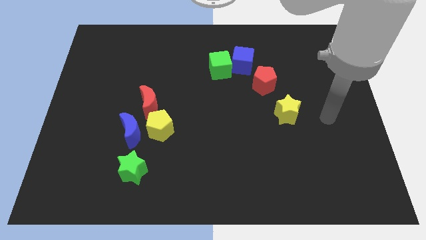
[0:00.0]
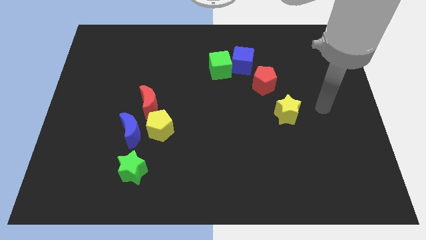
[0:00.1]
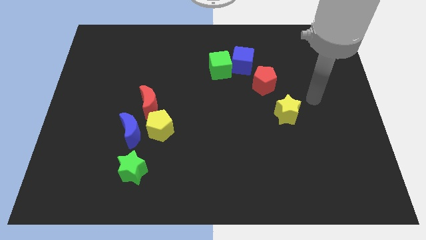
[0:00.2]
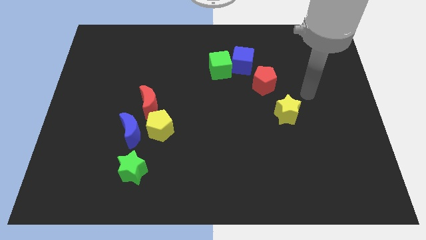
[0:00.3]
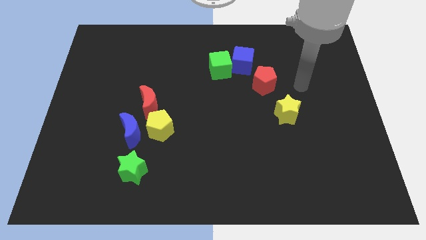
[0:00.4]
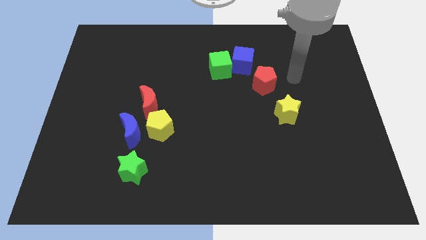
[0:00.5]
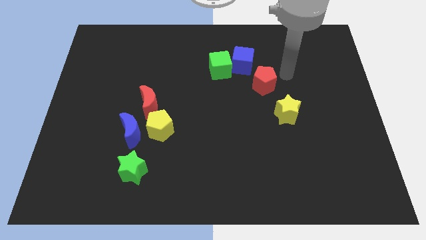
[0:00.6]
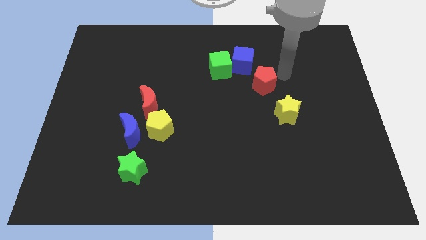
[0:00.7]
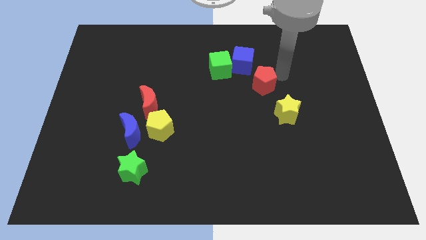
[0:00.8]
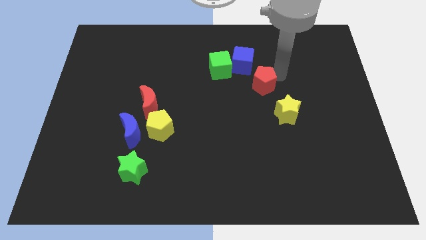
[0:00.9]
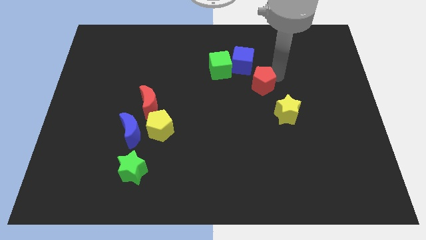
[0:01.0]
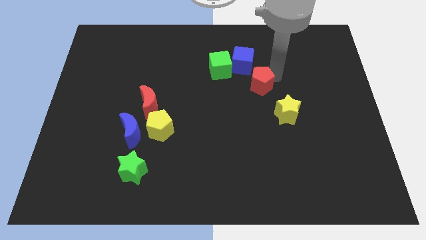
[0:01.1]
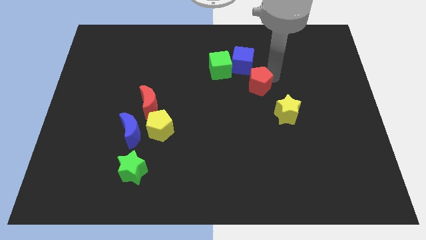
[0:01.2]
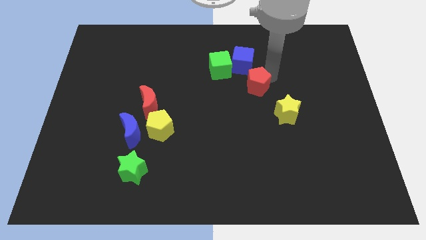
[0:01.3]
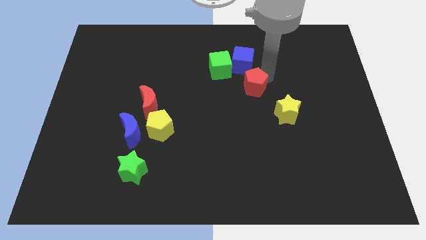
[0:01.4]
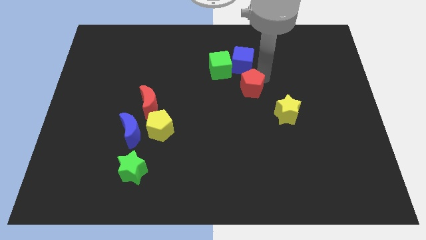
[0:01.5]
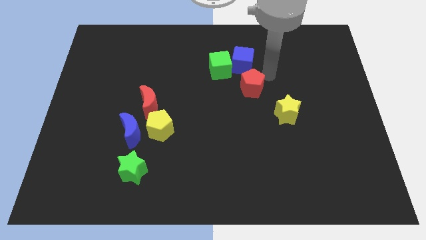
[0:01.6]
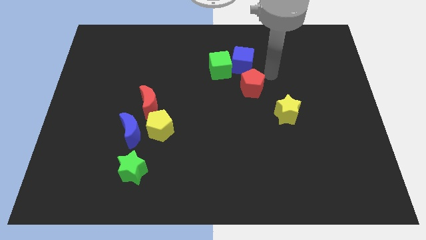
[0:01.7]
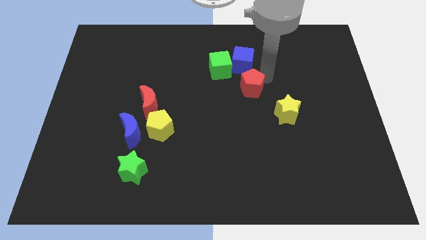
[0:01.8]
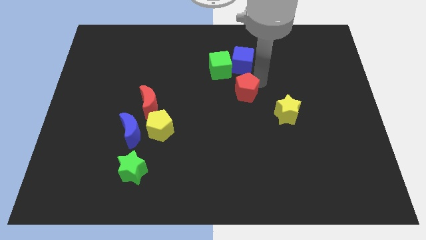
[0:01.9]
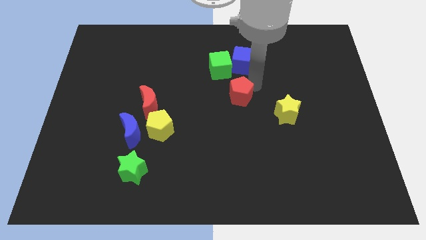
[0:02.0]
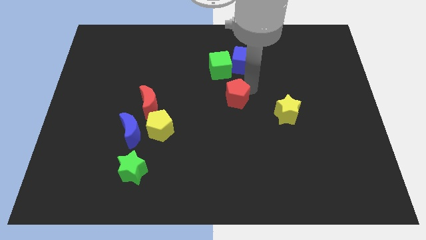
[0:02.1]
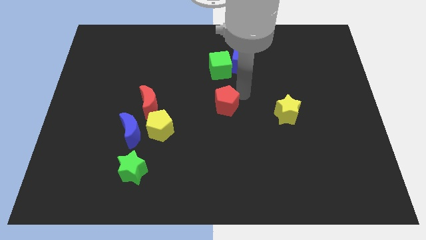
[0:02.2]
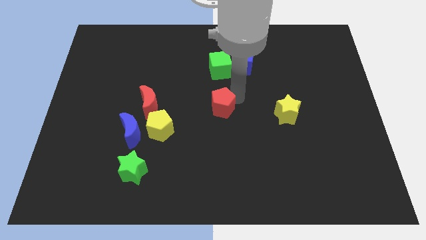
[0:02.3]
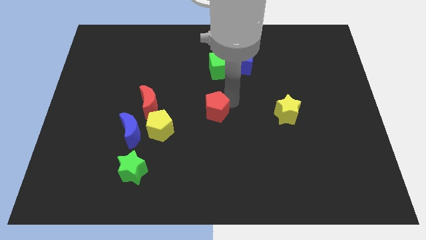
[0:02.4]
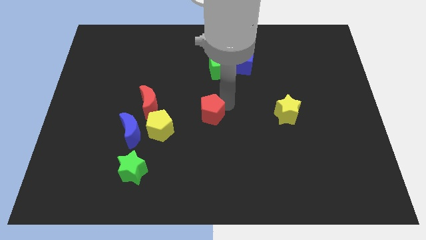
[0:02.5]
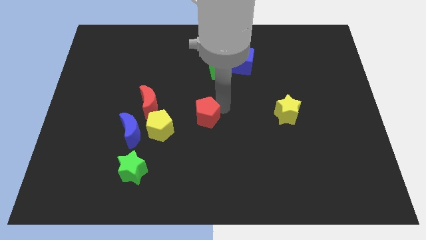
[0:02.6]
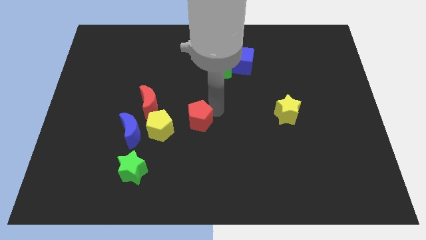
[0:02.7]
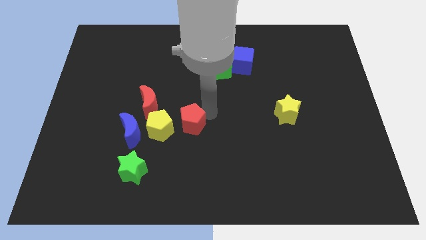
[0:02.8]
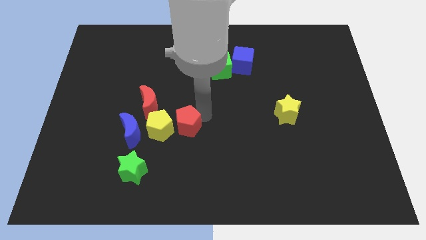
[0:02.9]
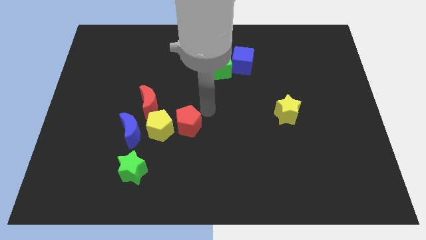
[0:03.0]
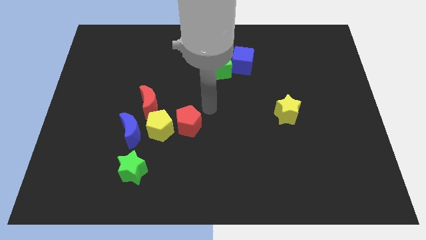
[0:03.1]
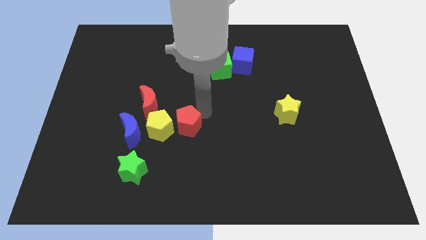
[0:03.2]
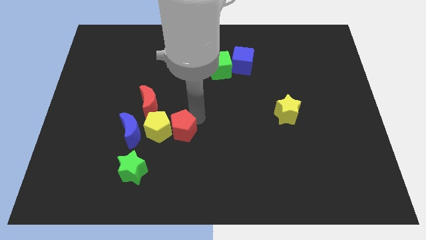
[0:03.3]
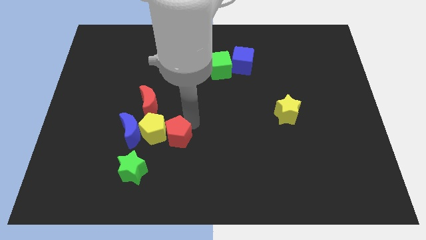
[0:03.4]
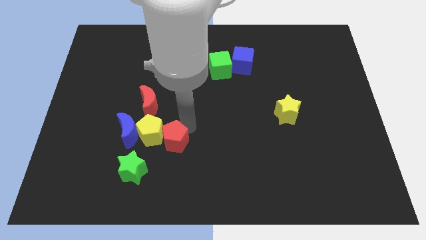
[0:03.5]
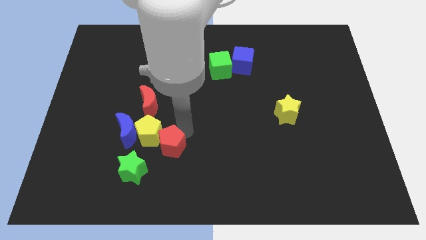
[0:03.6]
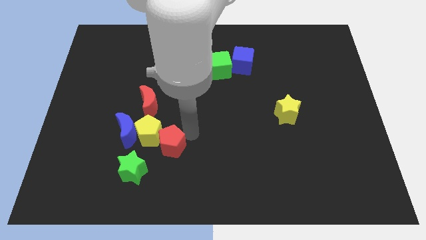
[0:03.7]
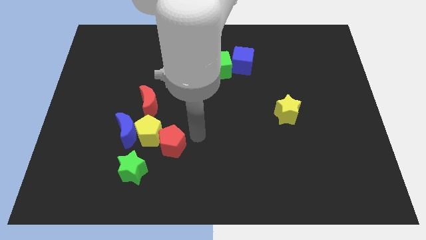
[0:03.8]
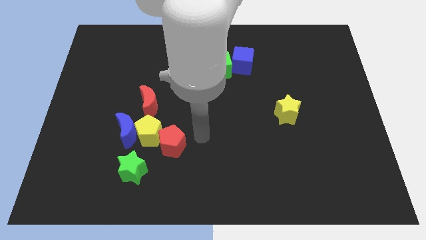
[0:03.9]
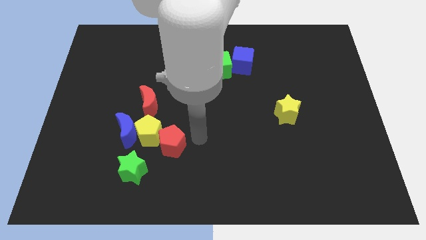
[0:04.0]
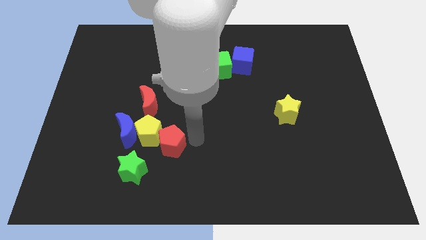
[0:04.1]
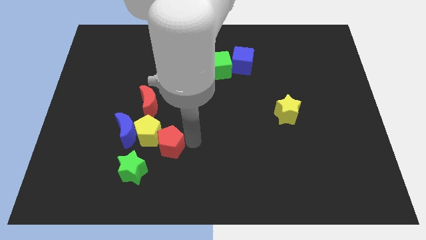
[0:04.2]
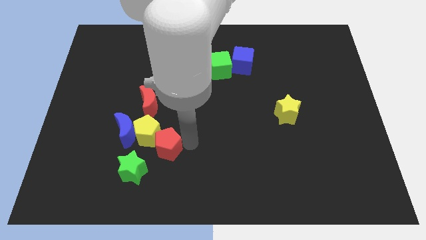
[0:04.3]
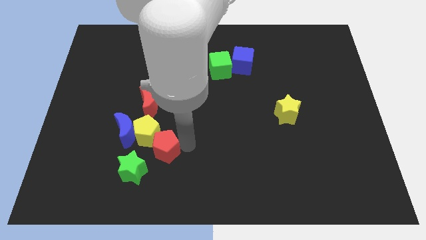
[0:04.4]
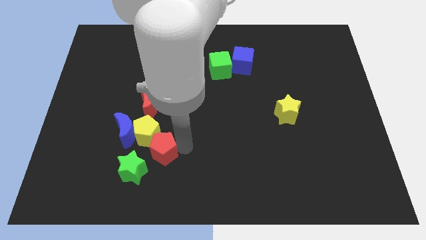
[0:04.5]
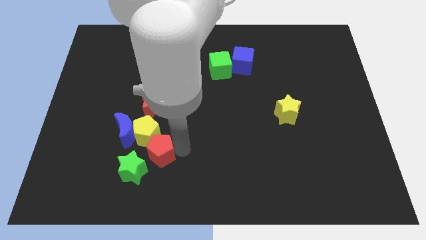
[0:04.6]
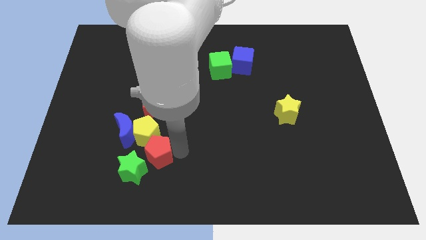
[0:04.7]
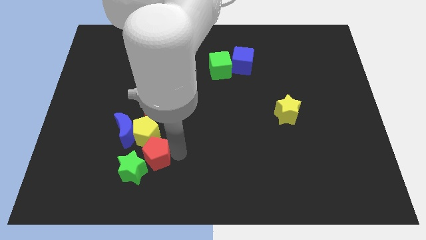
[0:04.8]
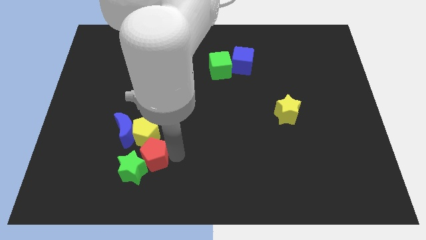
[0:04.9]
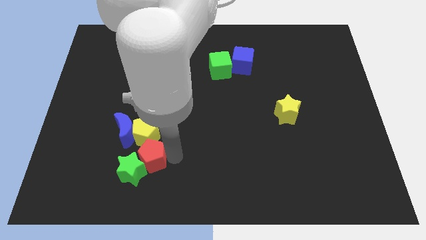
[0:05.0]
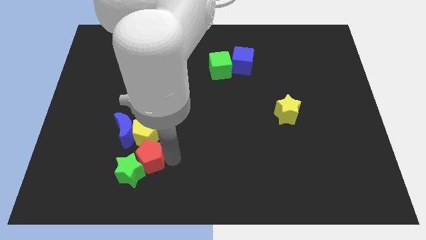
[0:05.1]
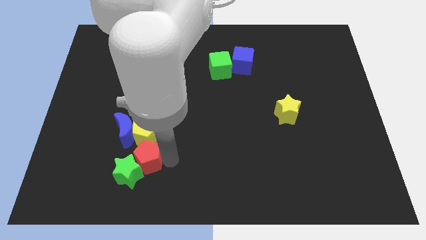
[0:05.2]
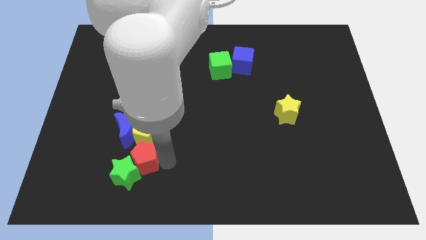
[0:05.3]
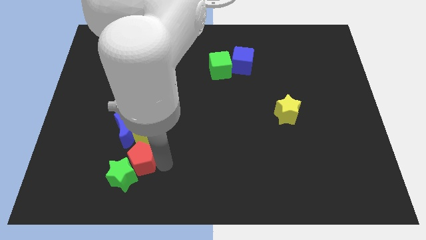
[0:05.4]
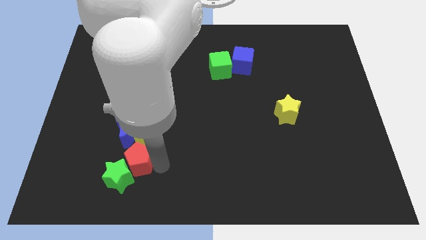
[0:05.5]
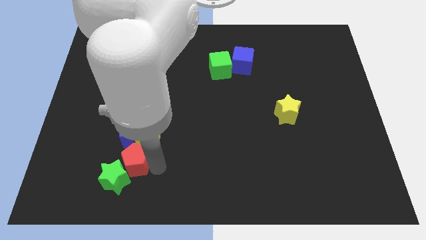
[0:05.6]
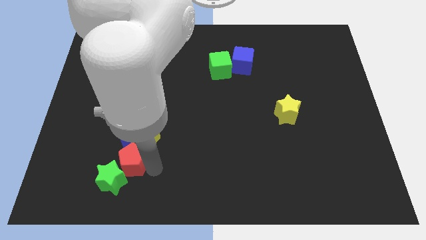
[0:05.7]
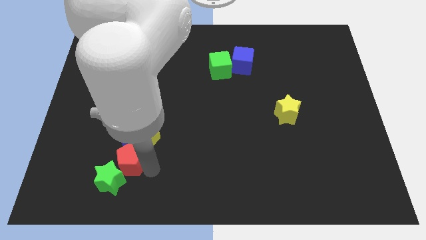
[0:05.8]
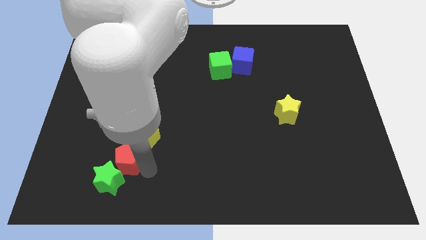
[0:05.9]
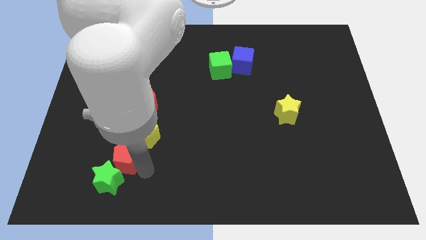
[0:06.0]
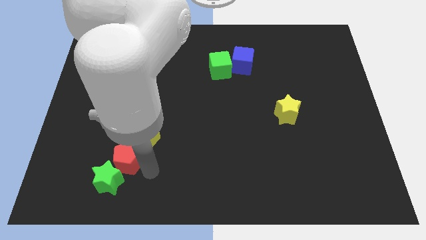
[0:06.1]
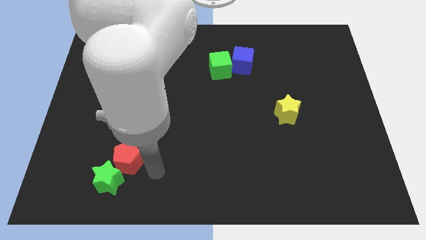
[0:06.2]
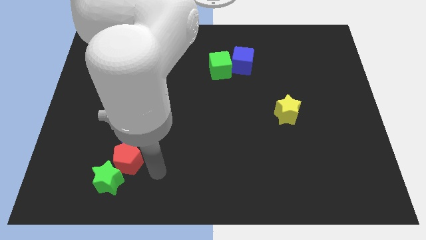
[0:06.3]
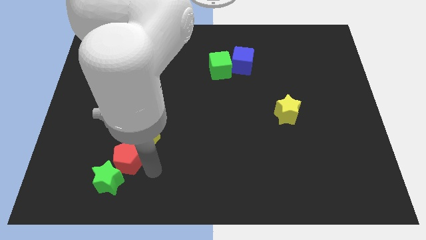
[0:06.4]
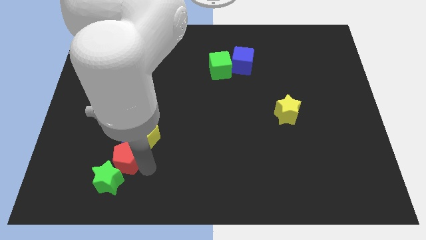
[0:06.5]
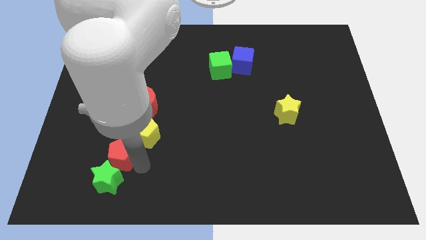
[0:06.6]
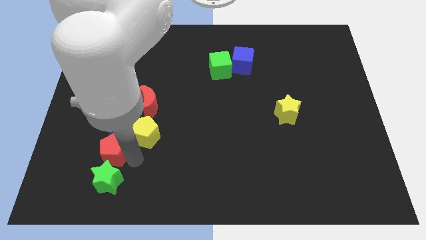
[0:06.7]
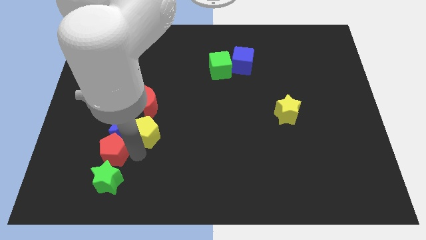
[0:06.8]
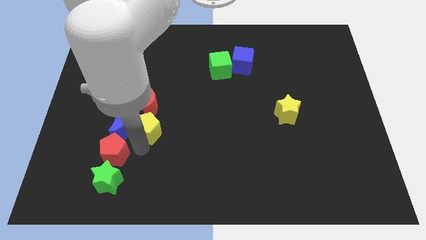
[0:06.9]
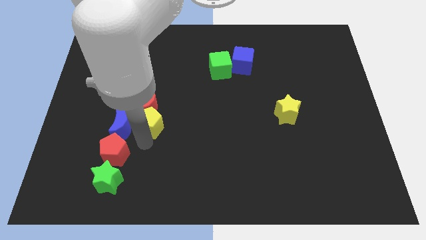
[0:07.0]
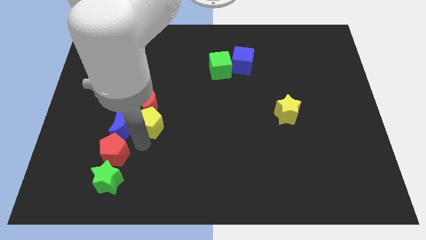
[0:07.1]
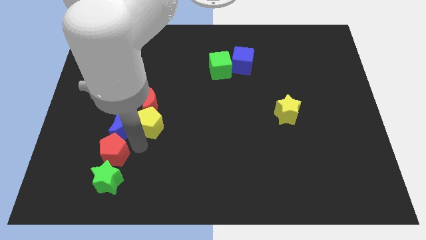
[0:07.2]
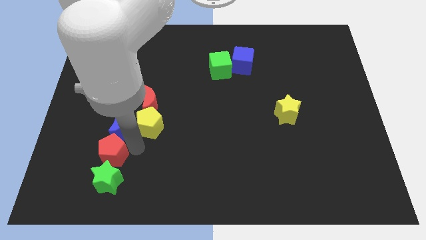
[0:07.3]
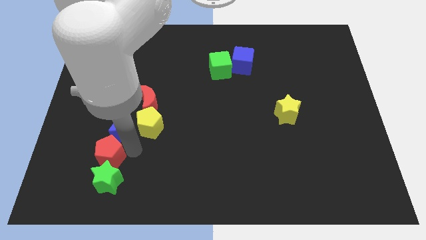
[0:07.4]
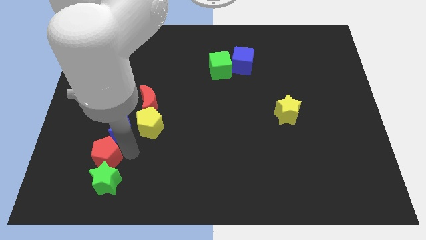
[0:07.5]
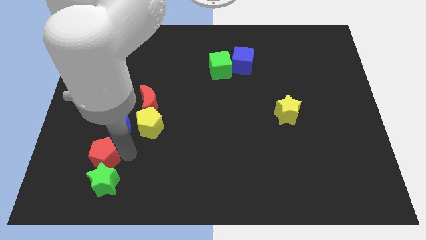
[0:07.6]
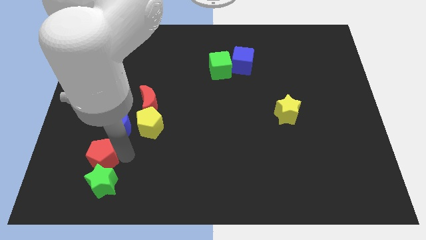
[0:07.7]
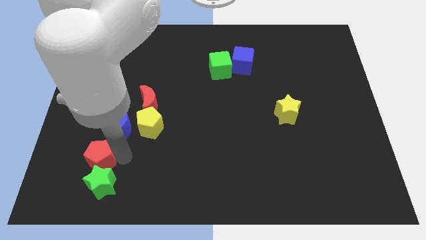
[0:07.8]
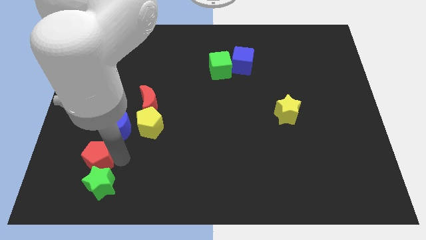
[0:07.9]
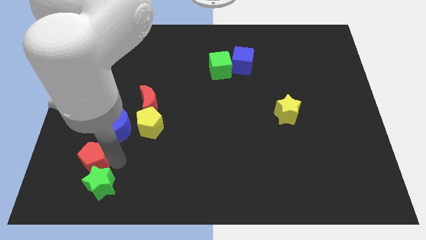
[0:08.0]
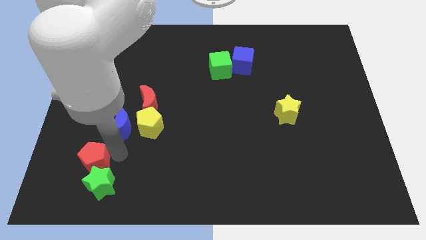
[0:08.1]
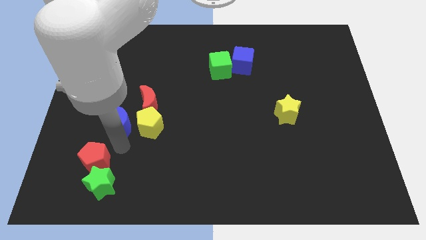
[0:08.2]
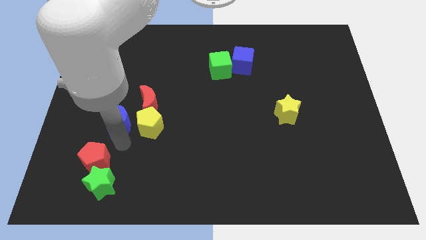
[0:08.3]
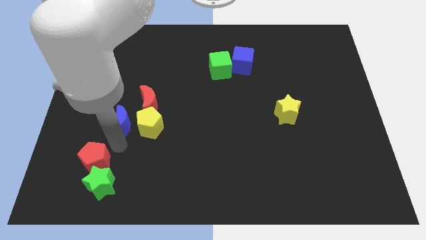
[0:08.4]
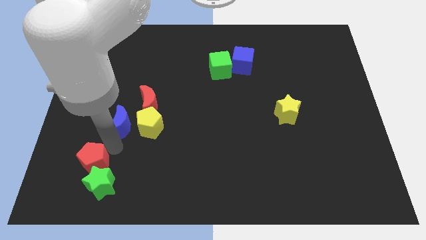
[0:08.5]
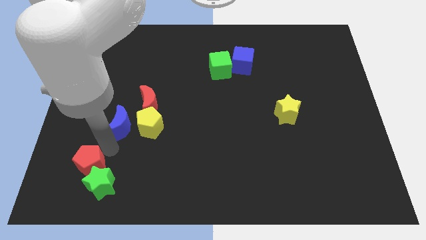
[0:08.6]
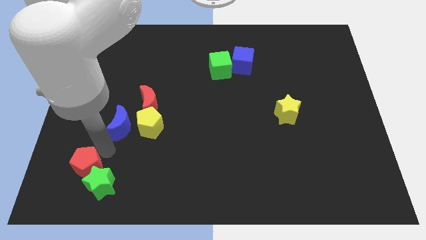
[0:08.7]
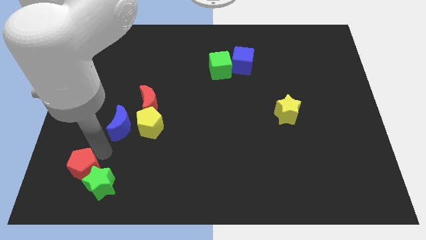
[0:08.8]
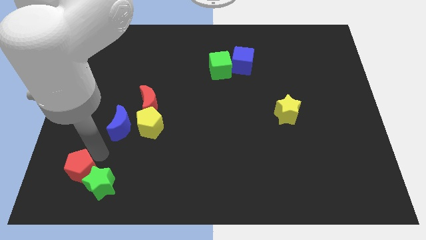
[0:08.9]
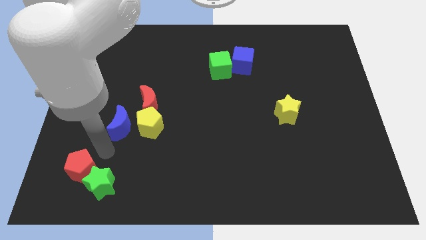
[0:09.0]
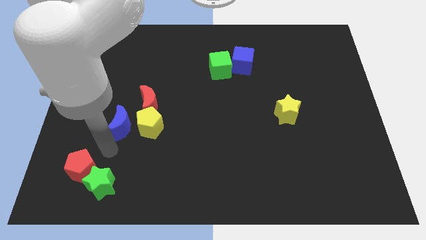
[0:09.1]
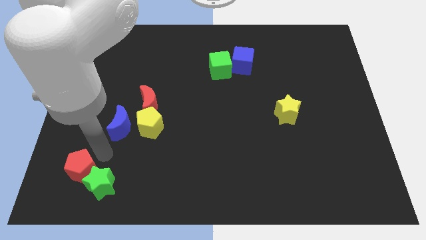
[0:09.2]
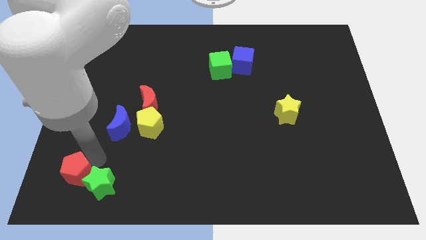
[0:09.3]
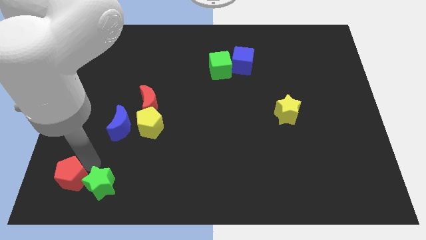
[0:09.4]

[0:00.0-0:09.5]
slide the red pentagon to the bottom left corner
